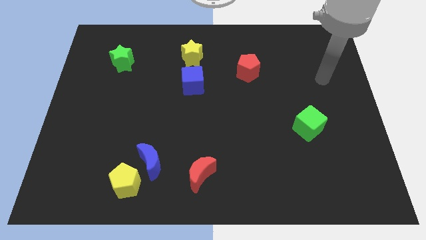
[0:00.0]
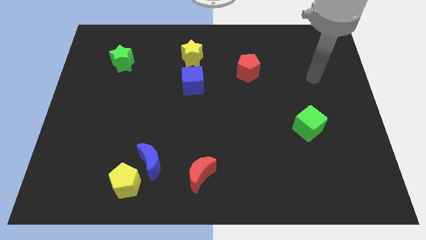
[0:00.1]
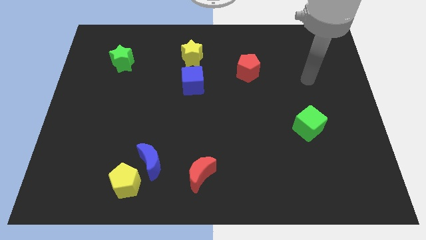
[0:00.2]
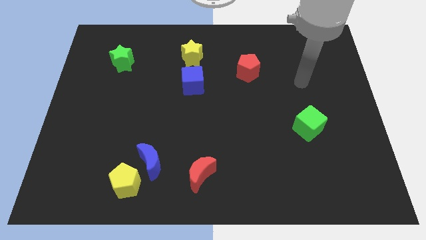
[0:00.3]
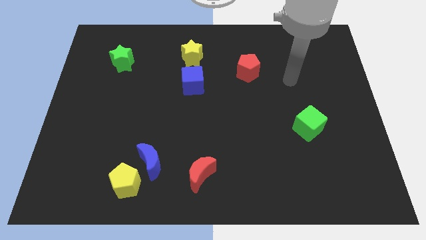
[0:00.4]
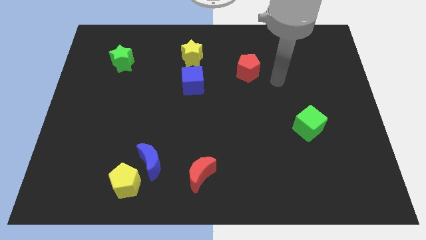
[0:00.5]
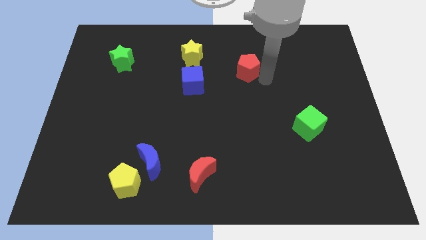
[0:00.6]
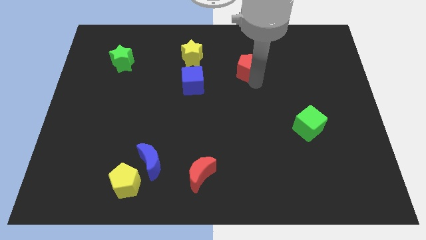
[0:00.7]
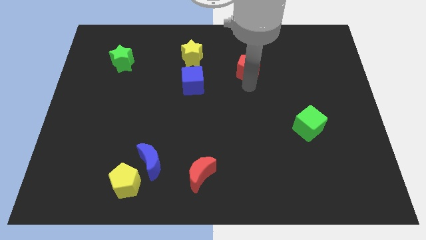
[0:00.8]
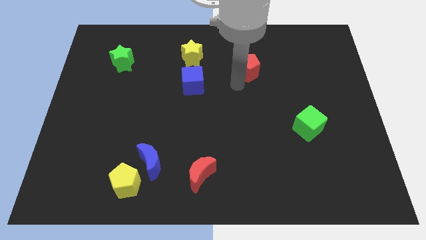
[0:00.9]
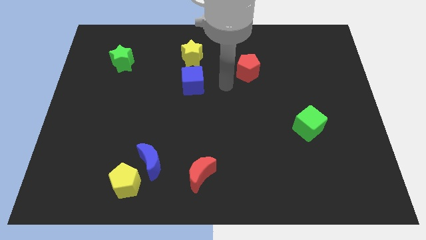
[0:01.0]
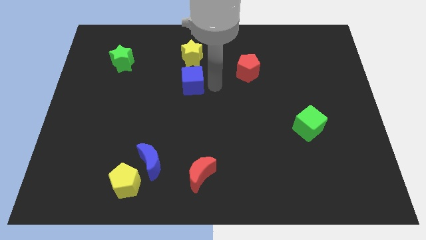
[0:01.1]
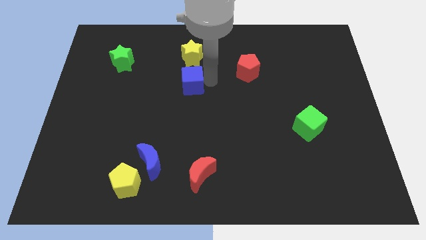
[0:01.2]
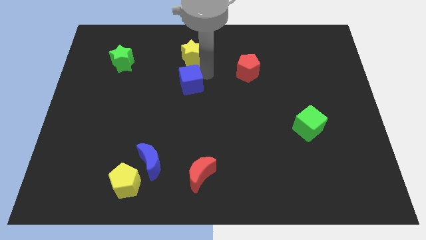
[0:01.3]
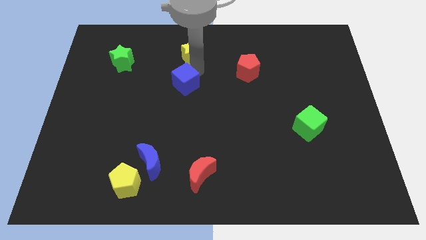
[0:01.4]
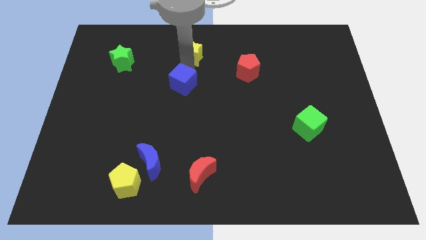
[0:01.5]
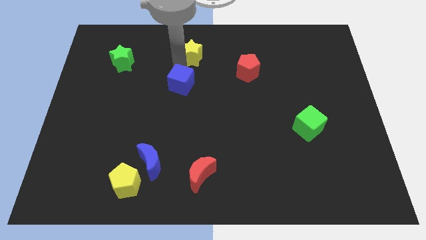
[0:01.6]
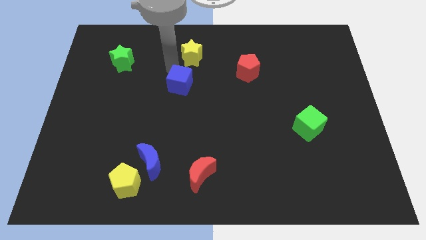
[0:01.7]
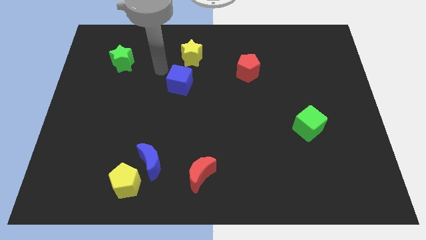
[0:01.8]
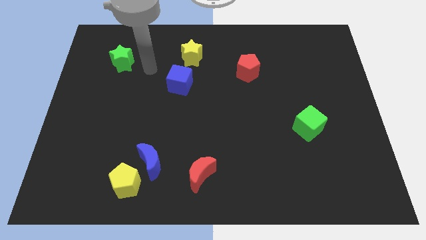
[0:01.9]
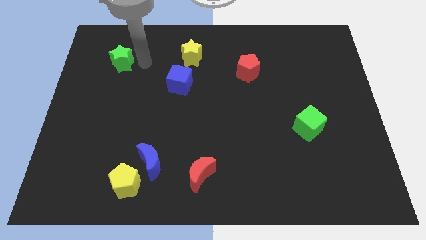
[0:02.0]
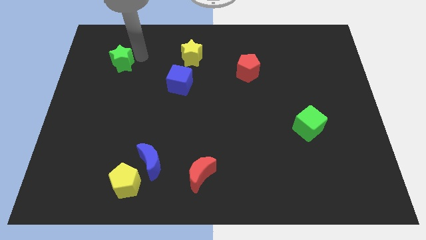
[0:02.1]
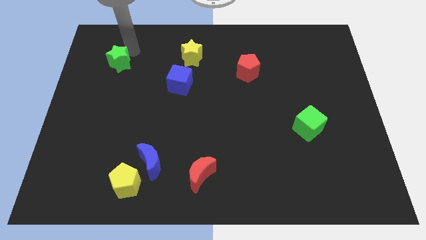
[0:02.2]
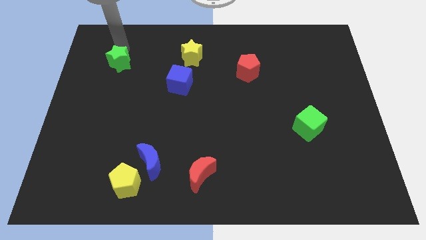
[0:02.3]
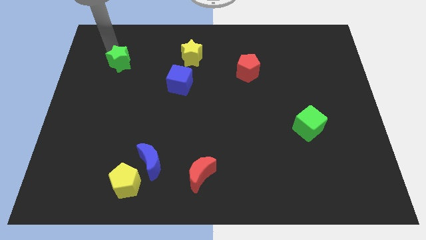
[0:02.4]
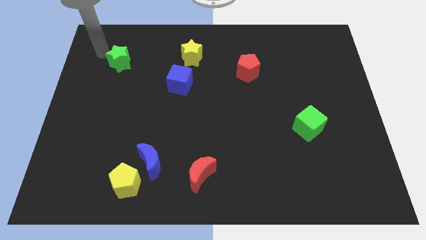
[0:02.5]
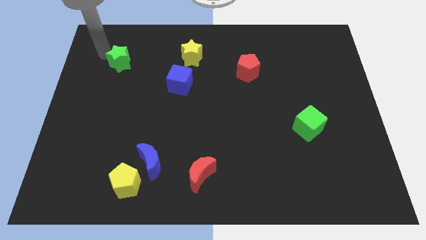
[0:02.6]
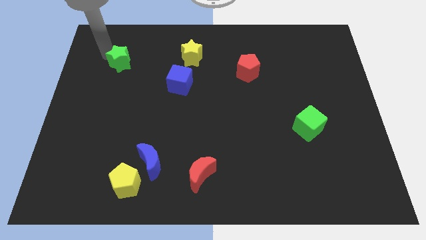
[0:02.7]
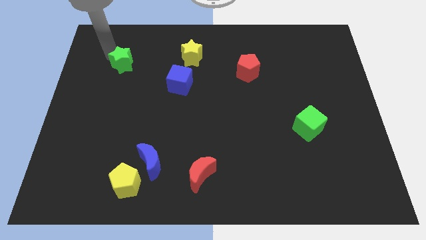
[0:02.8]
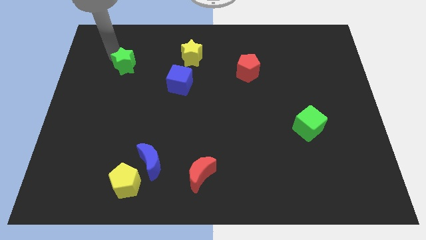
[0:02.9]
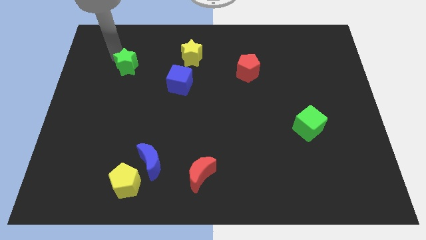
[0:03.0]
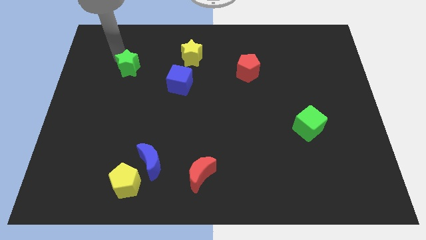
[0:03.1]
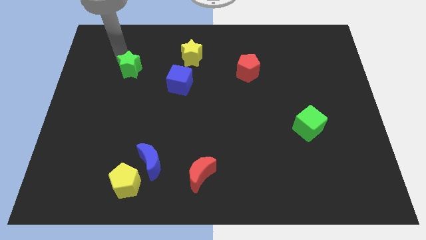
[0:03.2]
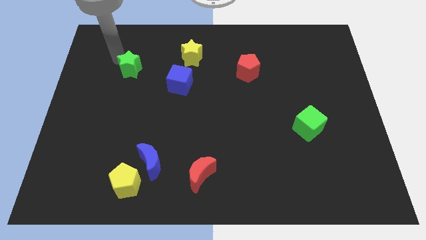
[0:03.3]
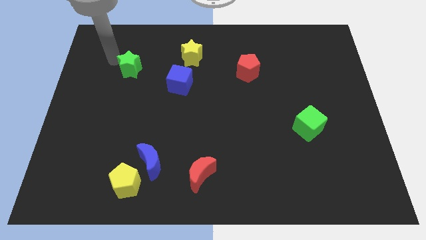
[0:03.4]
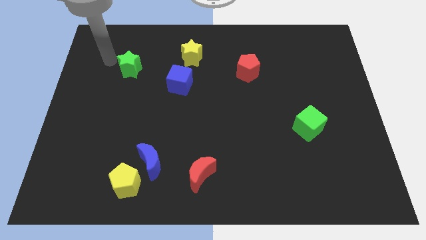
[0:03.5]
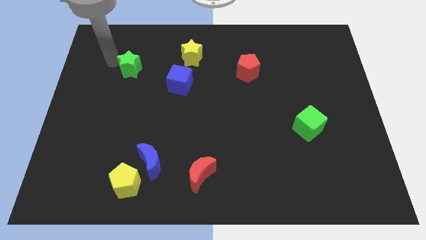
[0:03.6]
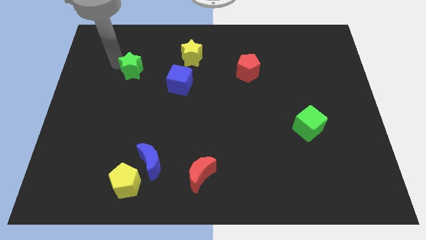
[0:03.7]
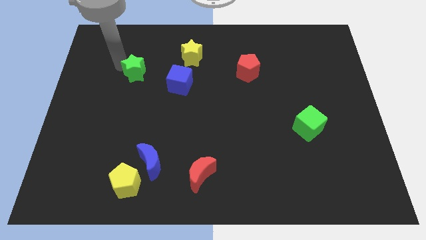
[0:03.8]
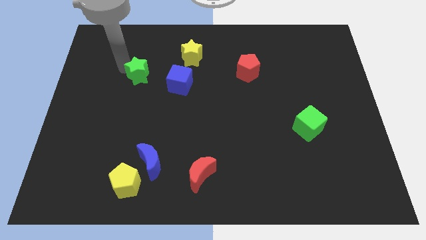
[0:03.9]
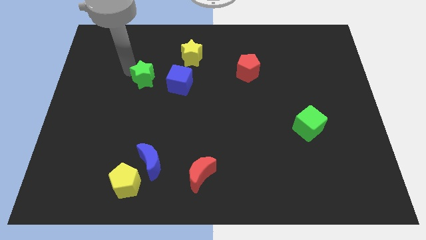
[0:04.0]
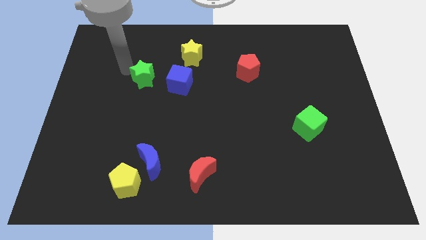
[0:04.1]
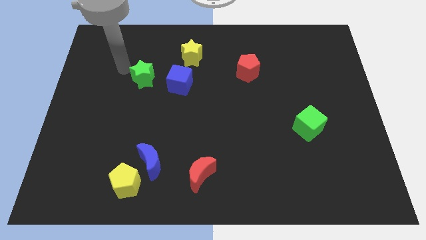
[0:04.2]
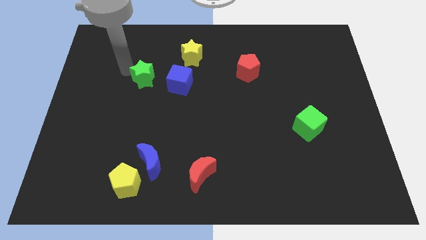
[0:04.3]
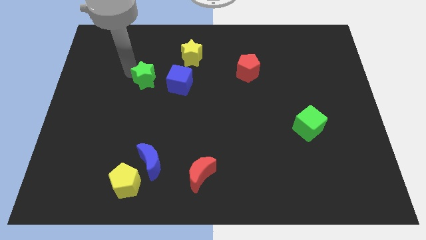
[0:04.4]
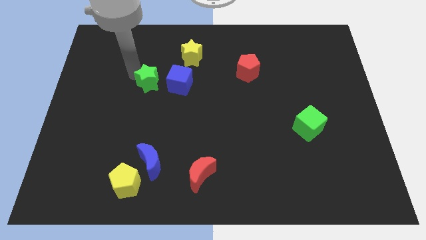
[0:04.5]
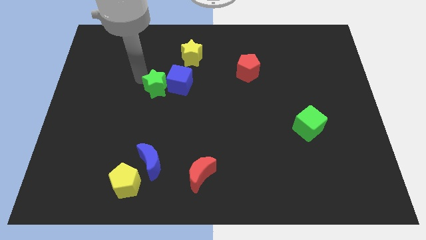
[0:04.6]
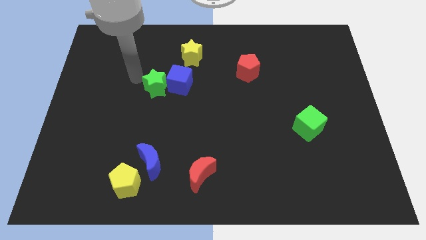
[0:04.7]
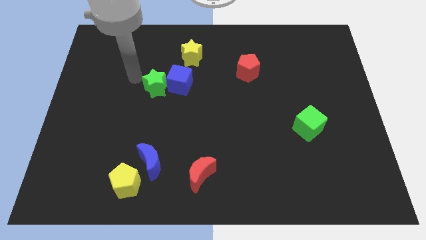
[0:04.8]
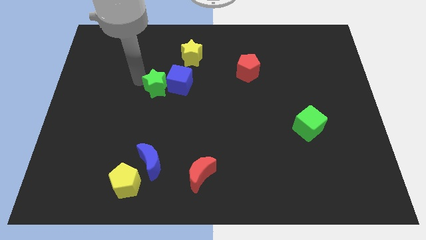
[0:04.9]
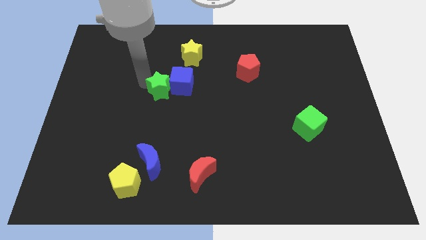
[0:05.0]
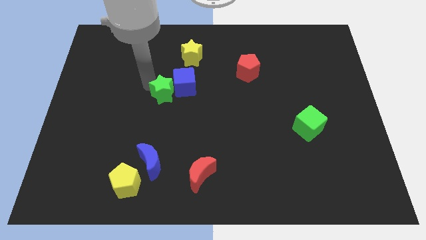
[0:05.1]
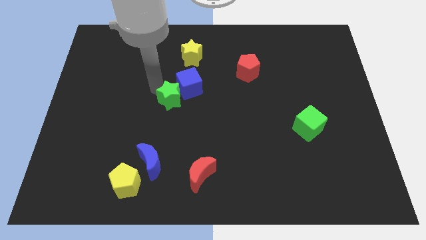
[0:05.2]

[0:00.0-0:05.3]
move the green star below the blue cube

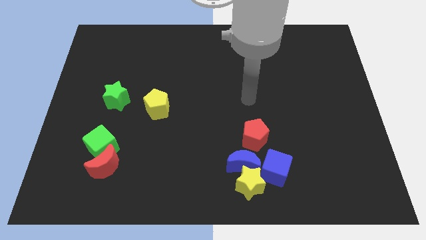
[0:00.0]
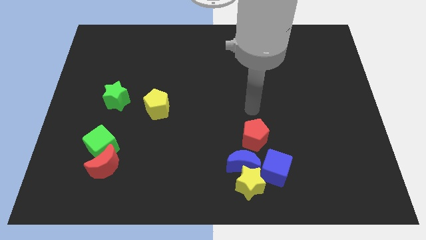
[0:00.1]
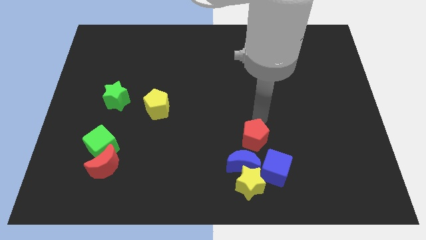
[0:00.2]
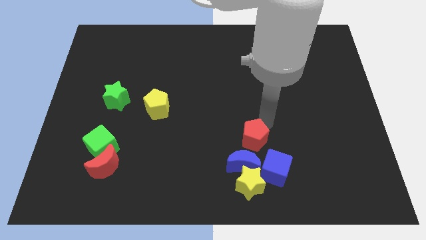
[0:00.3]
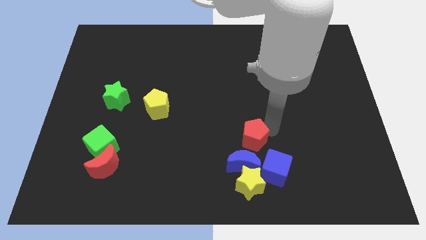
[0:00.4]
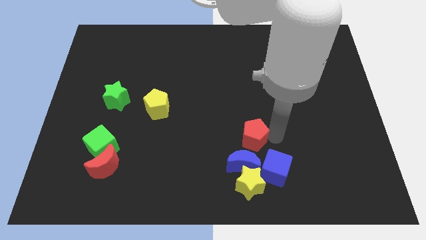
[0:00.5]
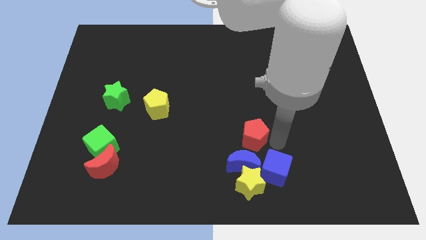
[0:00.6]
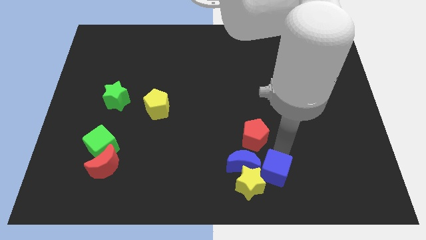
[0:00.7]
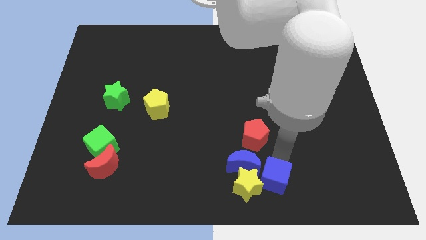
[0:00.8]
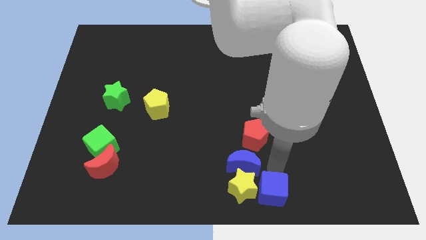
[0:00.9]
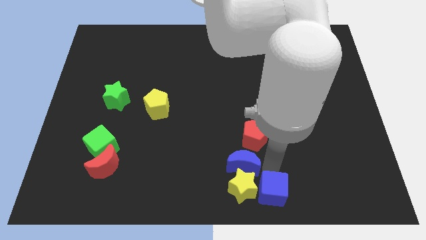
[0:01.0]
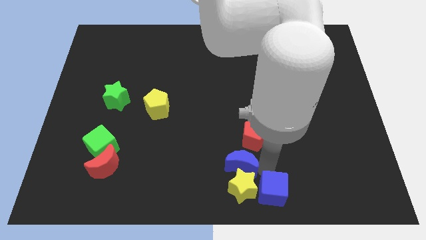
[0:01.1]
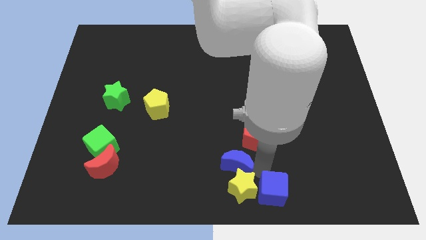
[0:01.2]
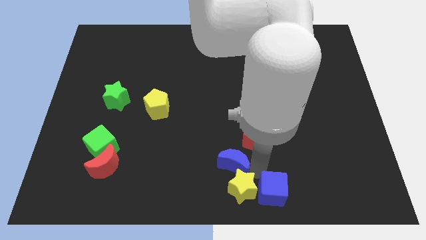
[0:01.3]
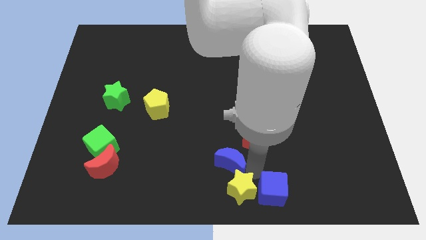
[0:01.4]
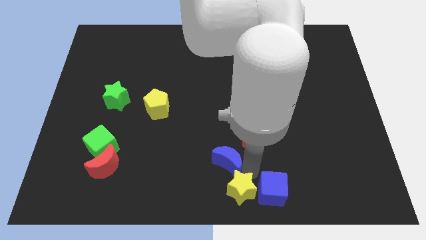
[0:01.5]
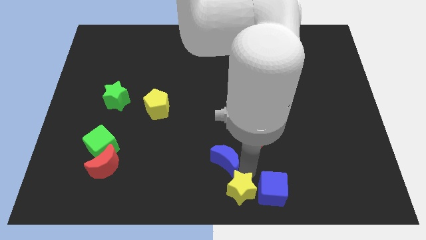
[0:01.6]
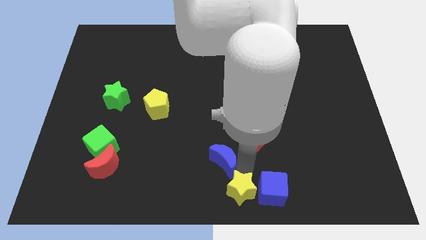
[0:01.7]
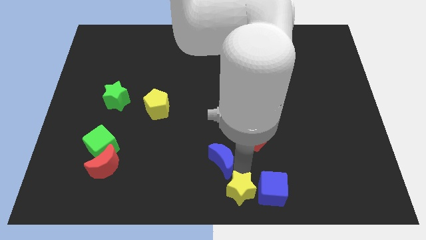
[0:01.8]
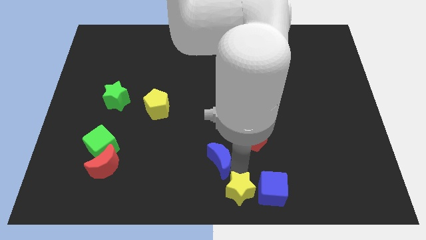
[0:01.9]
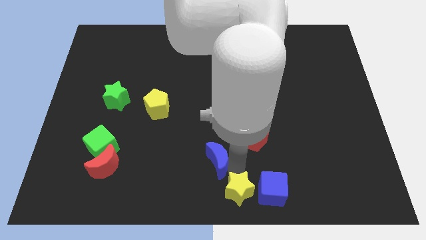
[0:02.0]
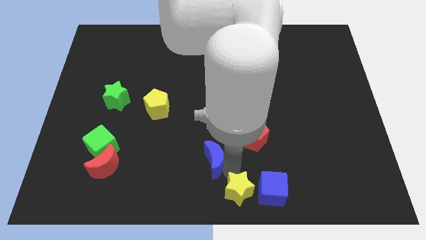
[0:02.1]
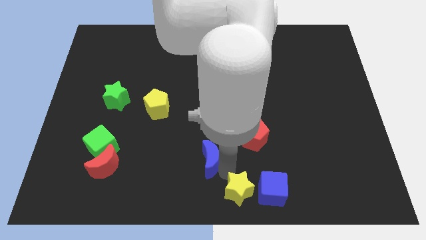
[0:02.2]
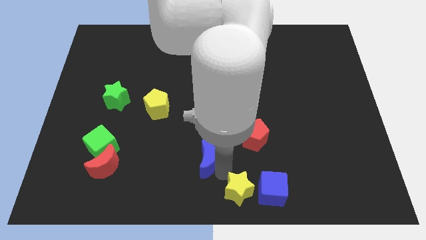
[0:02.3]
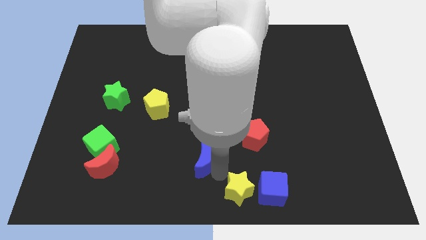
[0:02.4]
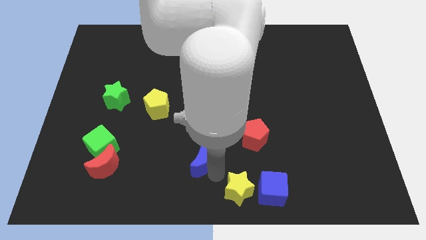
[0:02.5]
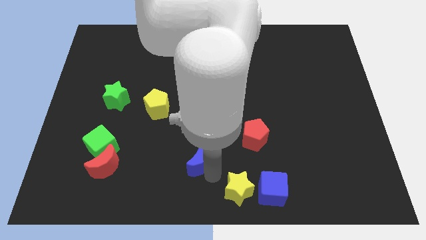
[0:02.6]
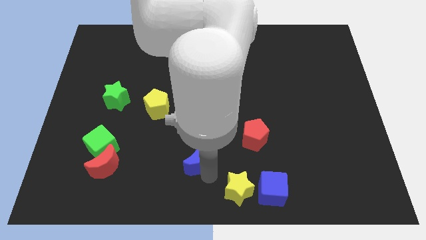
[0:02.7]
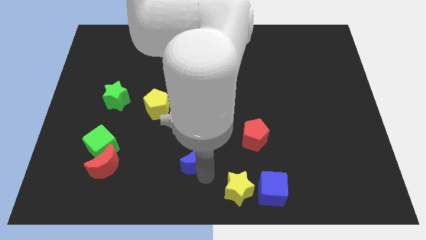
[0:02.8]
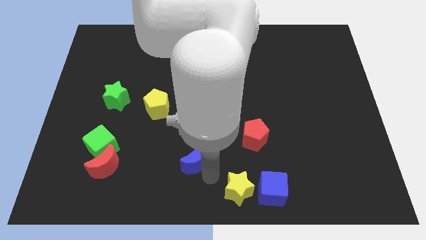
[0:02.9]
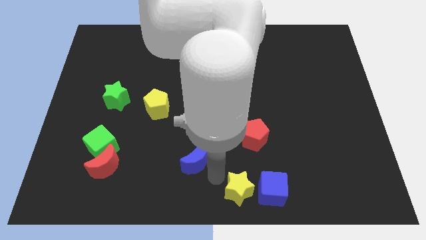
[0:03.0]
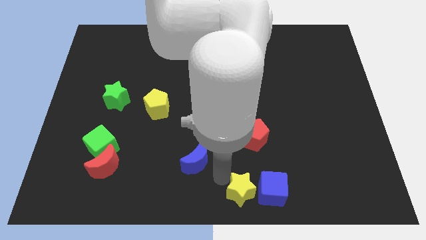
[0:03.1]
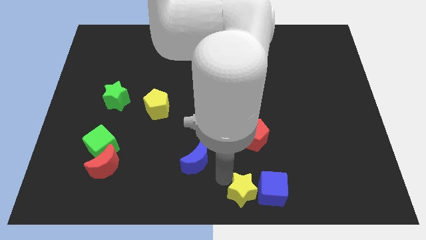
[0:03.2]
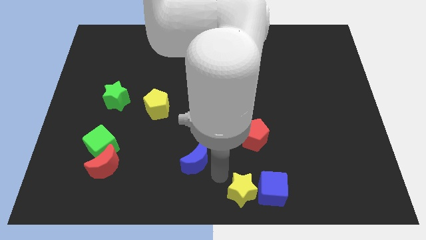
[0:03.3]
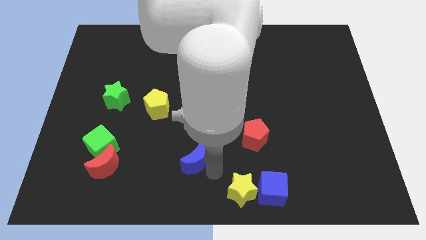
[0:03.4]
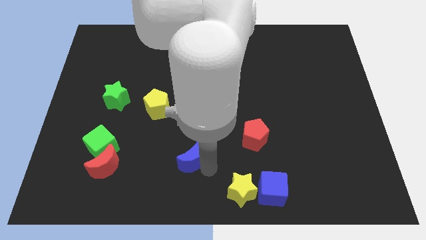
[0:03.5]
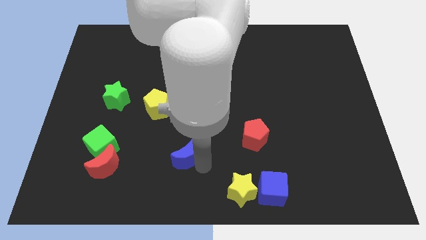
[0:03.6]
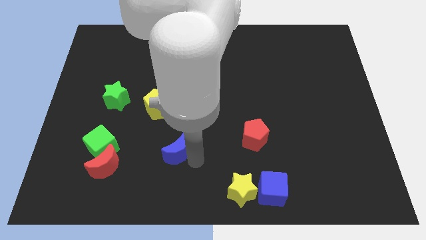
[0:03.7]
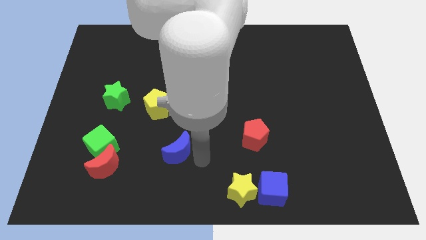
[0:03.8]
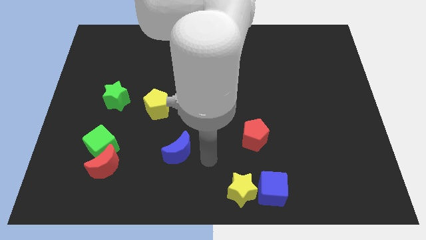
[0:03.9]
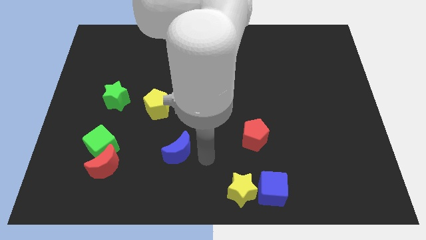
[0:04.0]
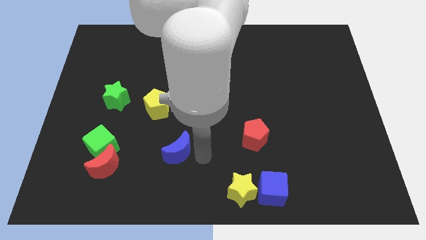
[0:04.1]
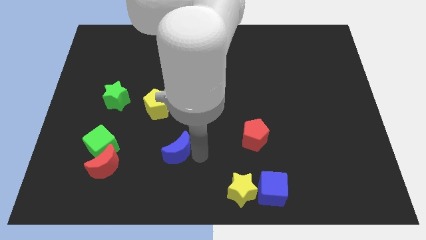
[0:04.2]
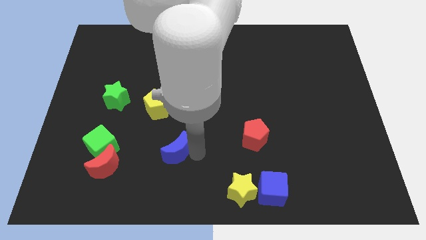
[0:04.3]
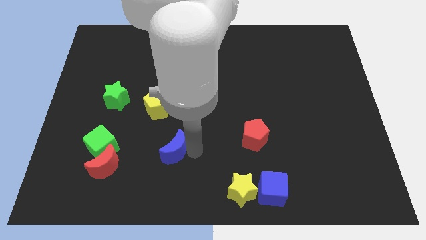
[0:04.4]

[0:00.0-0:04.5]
push the blue moon right of the green cube
